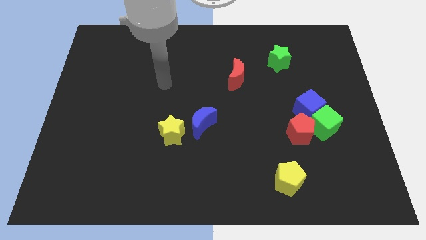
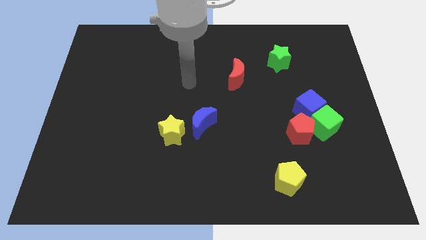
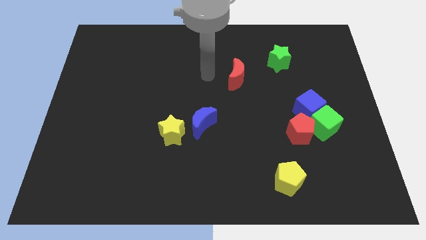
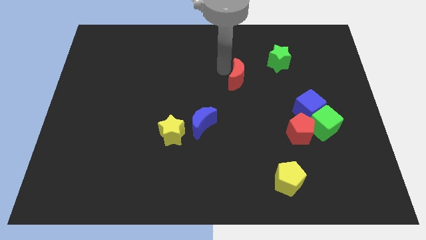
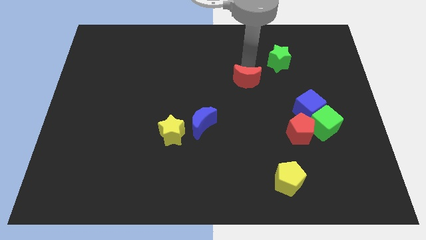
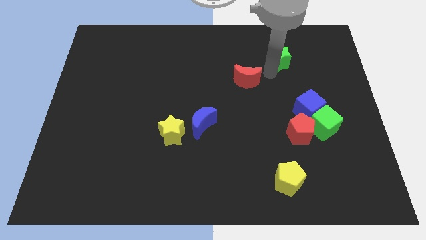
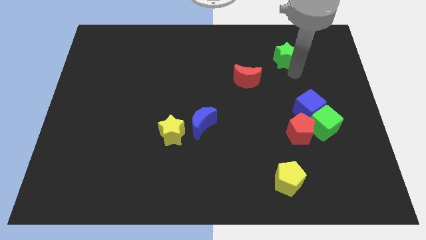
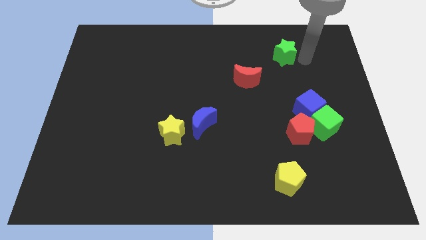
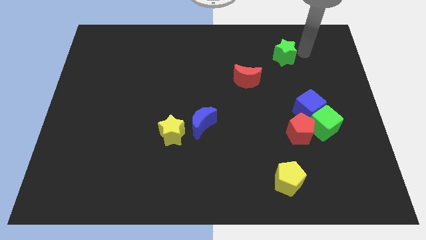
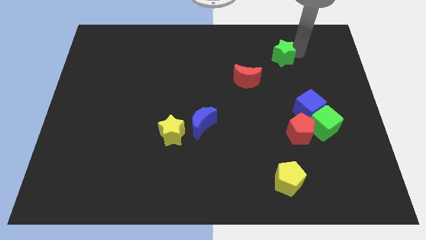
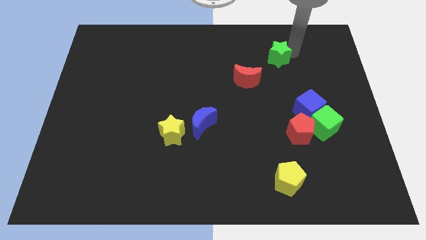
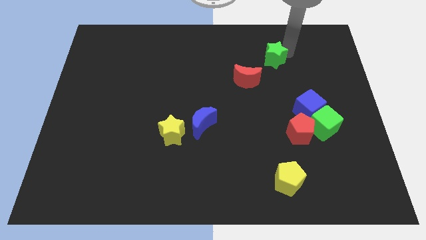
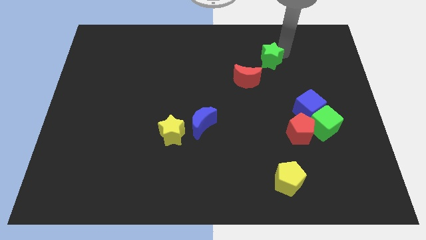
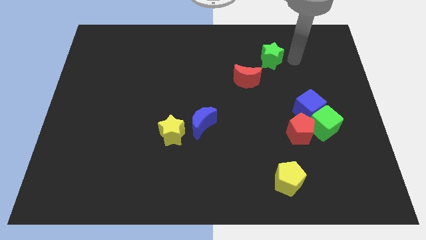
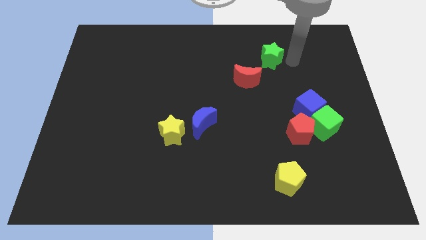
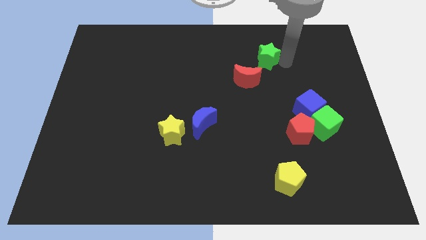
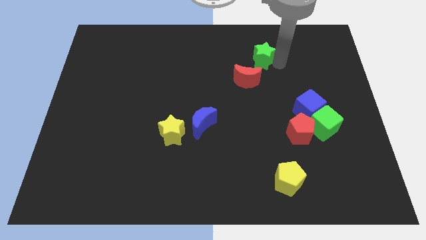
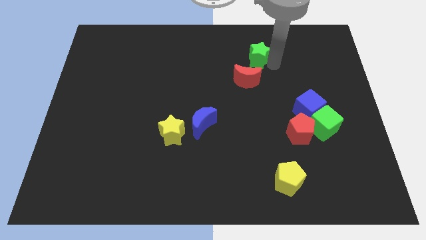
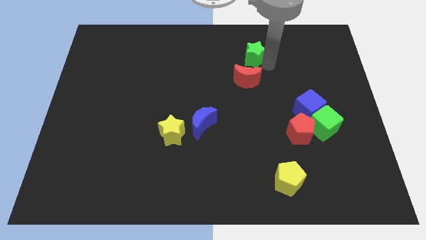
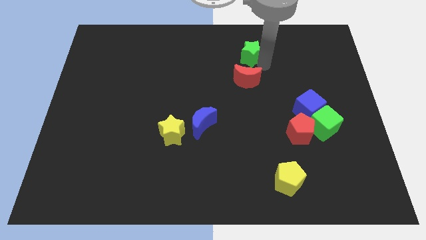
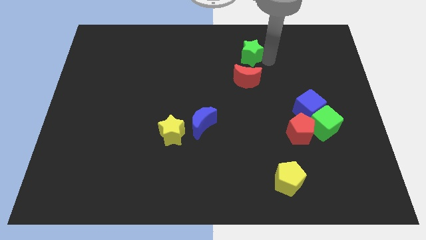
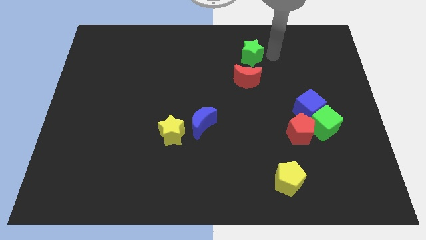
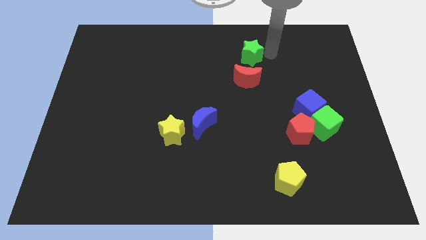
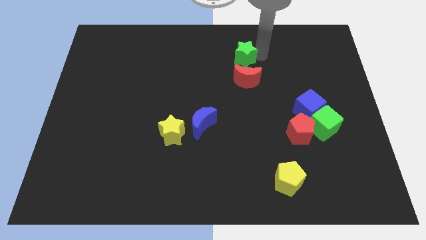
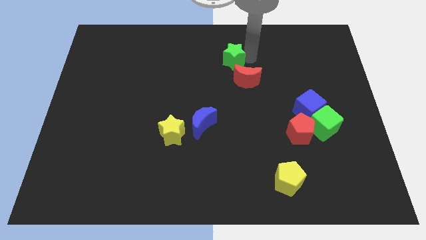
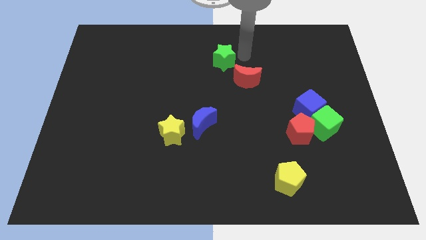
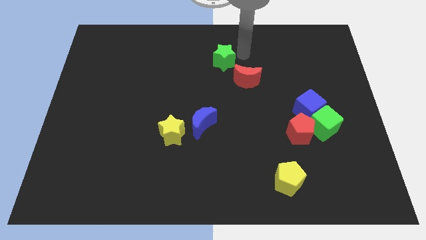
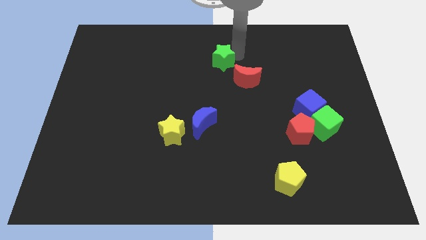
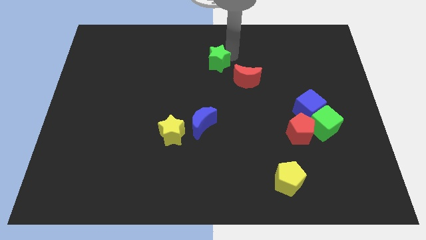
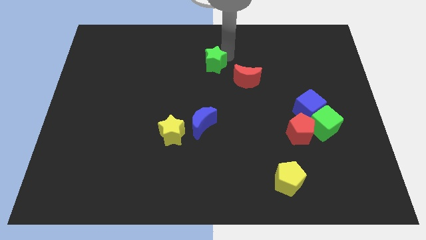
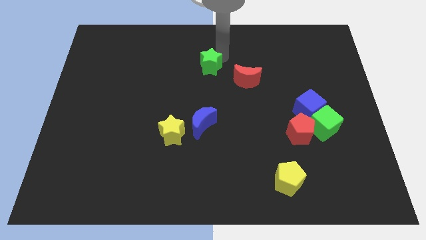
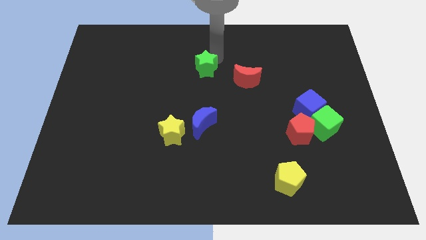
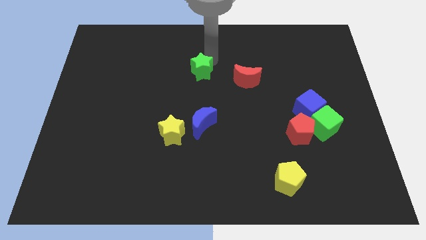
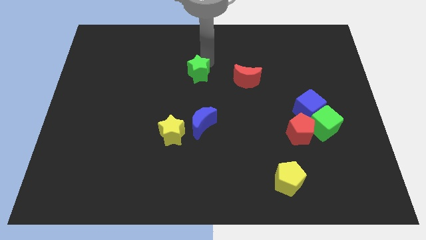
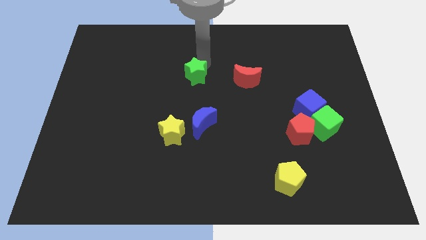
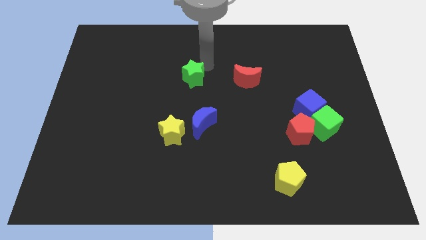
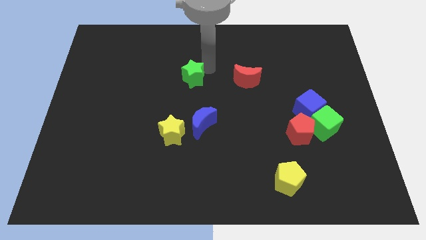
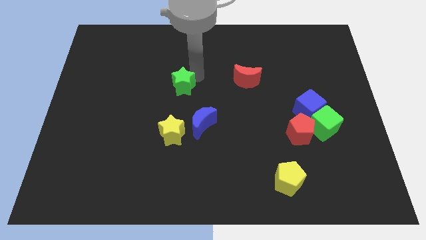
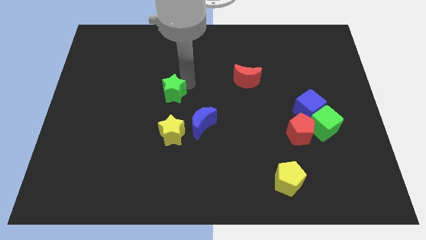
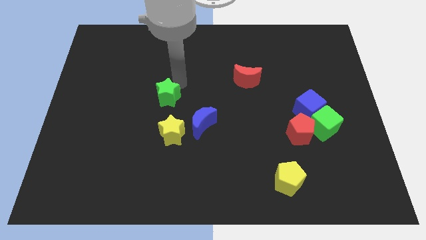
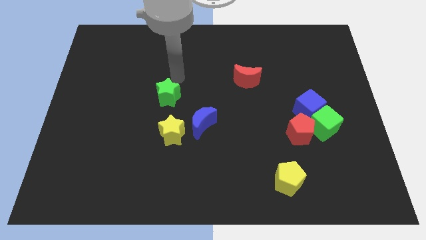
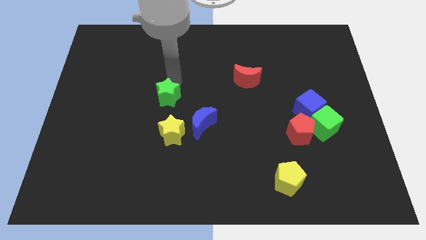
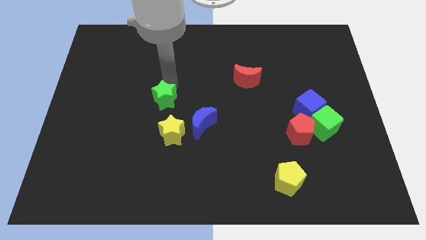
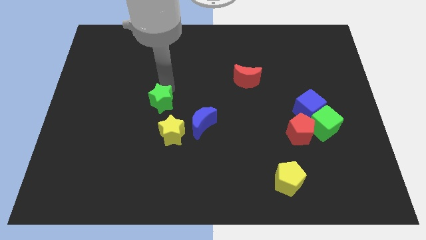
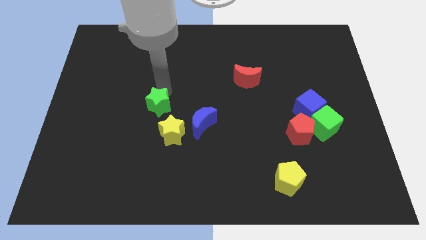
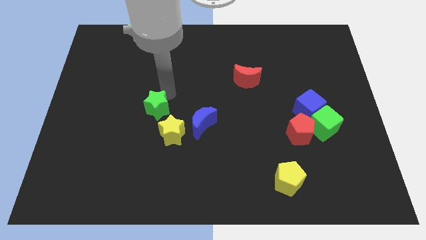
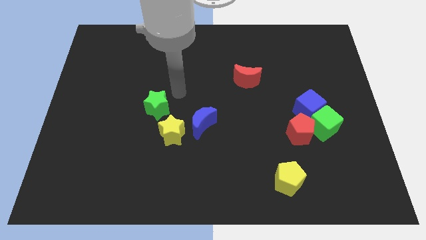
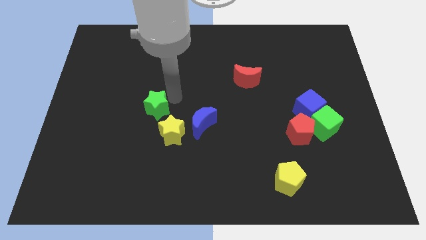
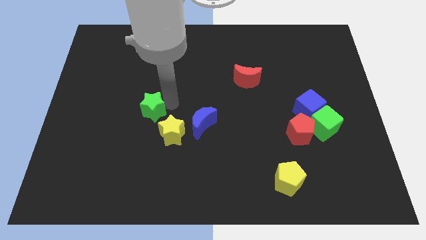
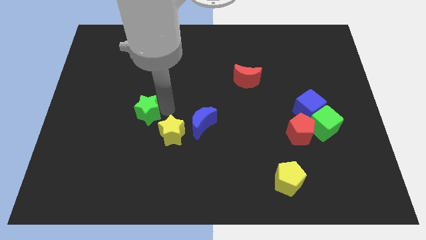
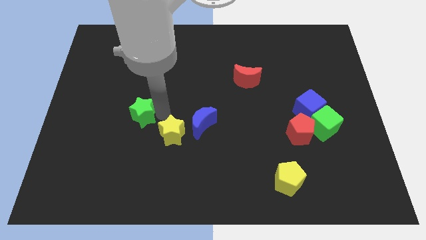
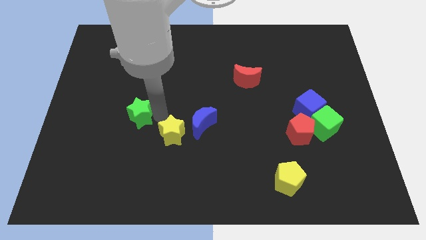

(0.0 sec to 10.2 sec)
push the green star to the left side of the yellow star

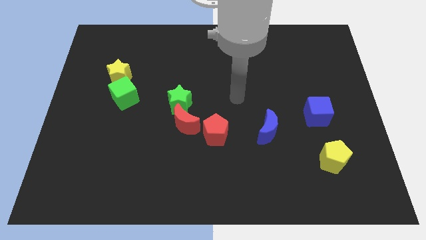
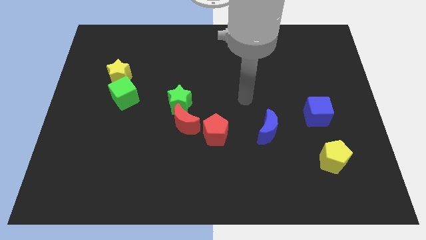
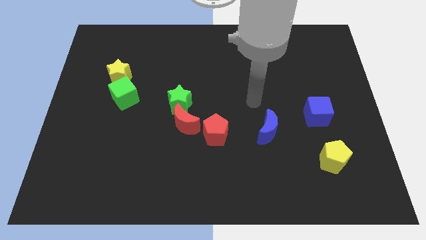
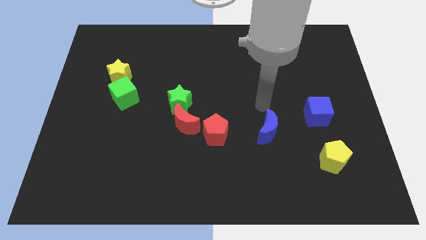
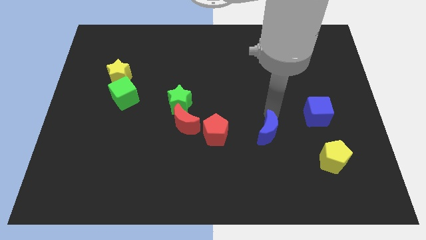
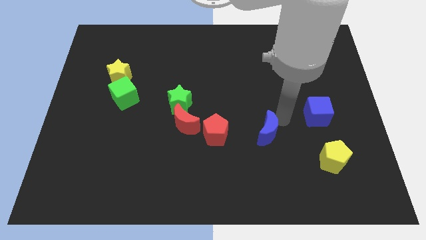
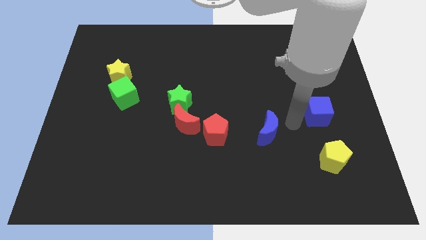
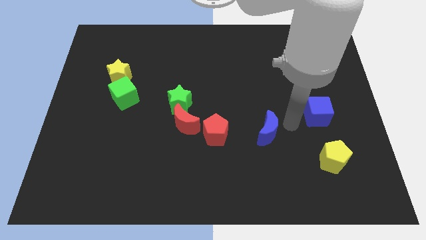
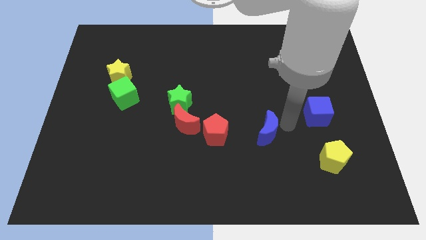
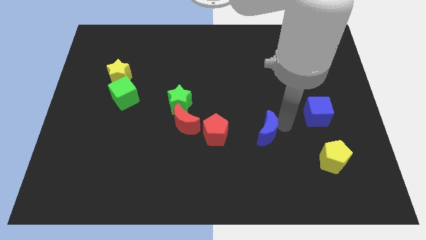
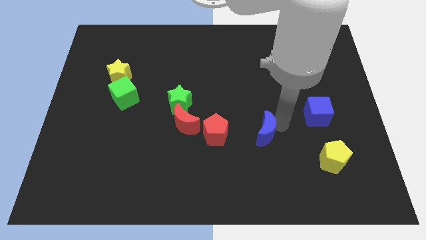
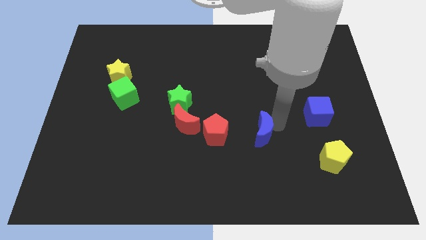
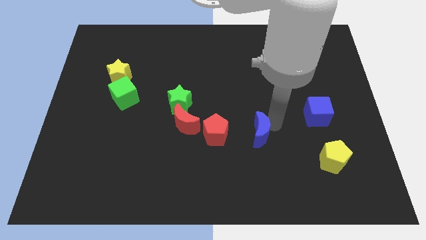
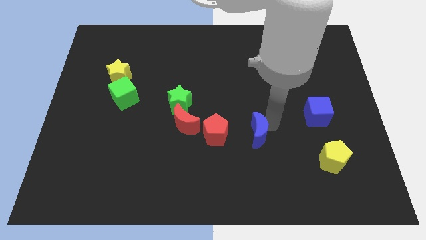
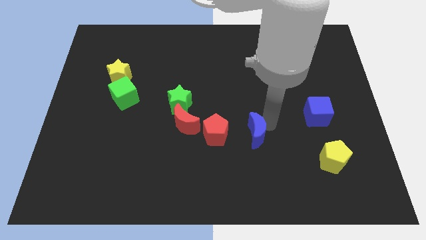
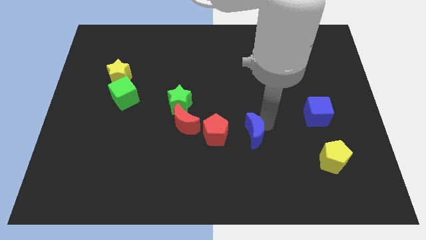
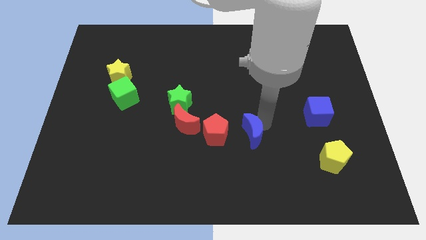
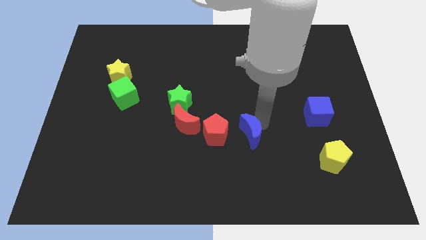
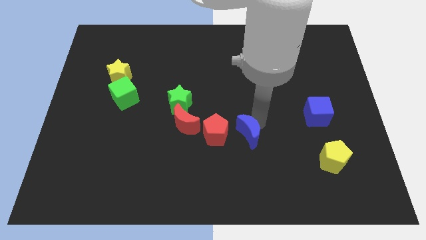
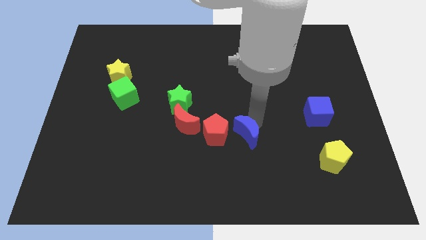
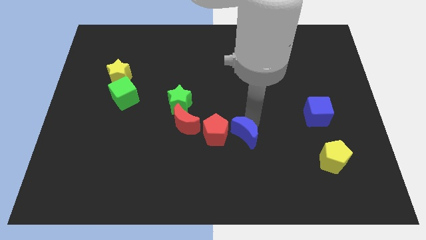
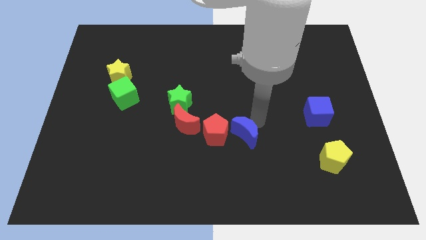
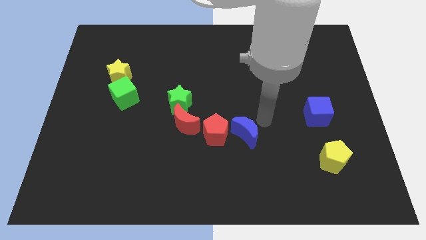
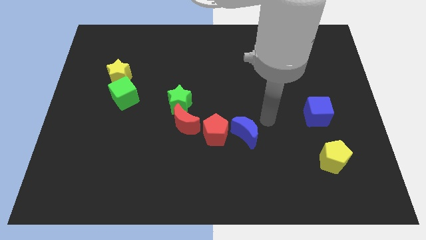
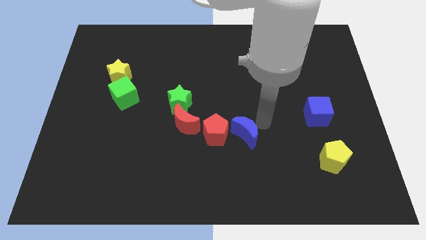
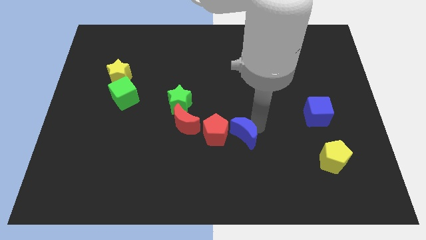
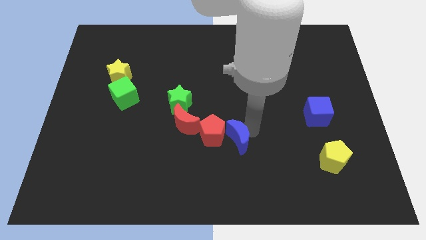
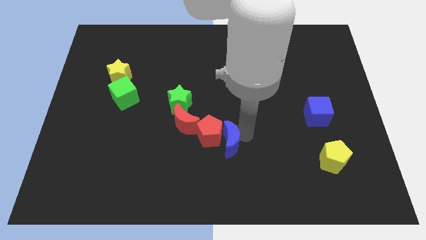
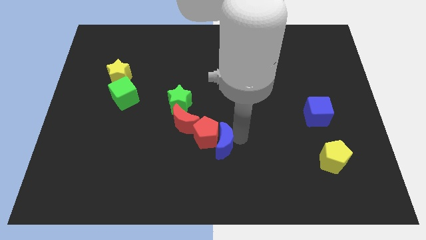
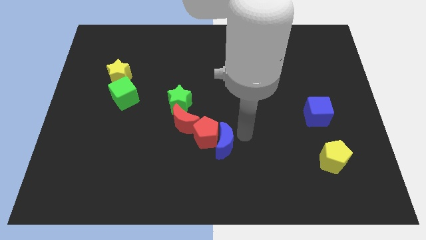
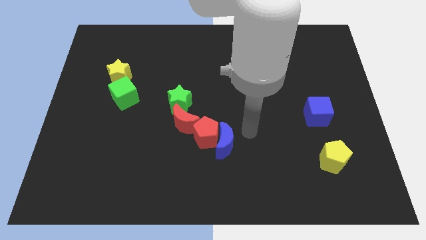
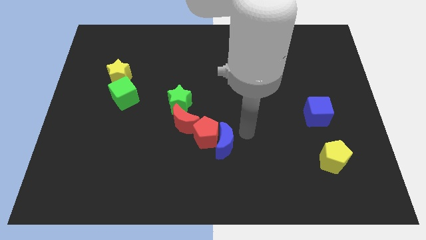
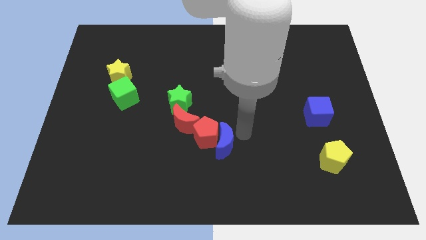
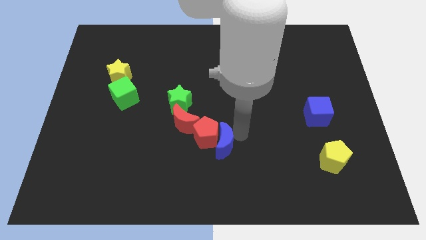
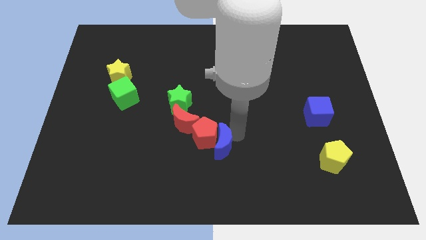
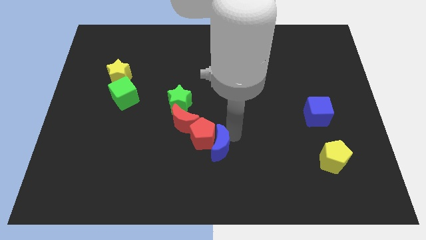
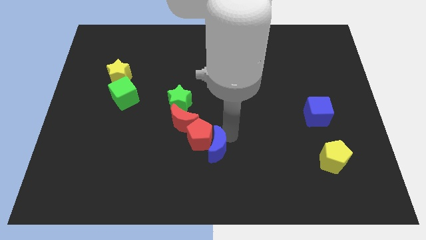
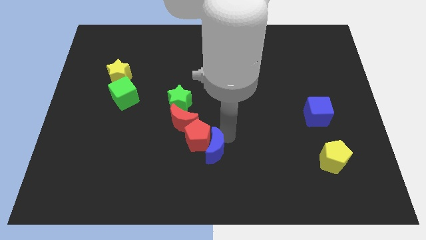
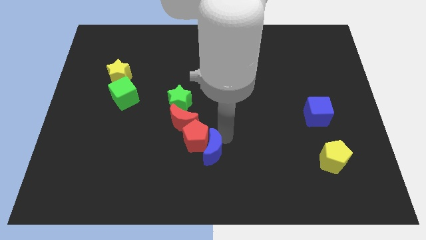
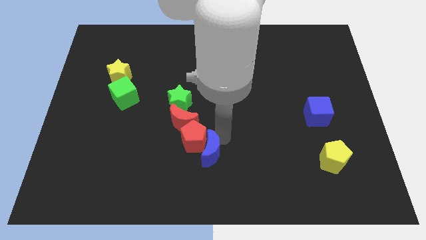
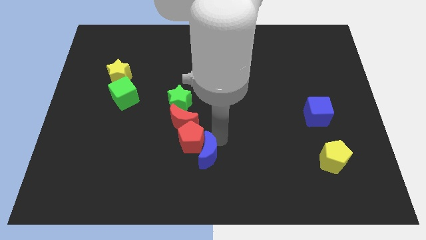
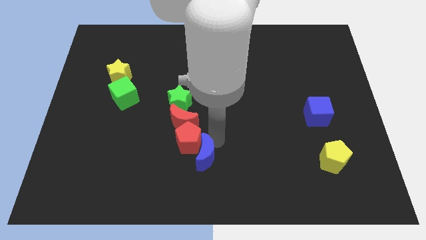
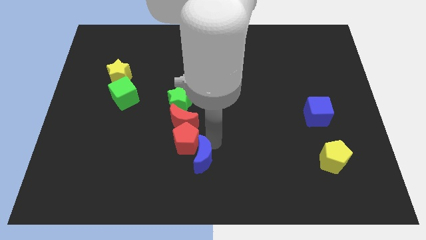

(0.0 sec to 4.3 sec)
move the blue moon to the bottom of the red moon
